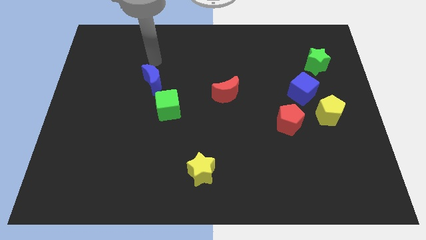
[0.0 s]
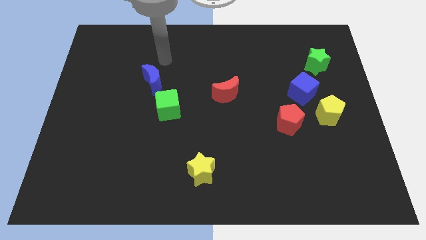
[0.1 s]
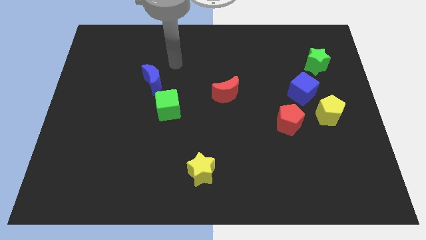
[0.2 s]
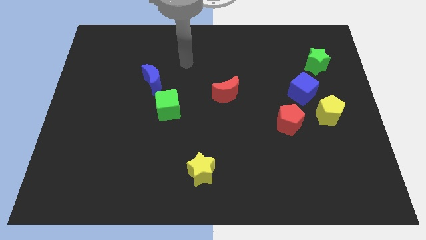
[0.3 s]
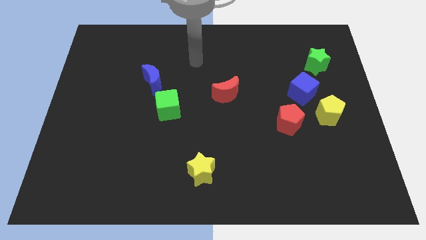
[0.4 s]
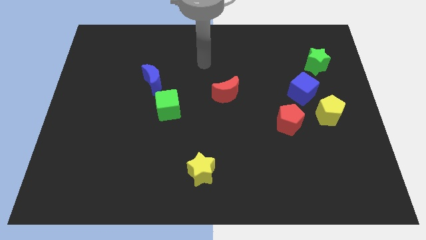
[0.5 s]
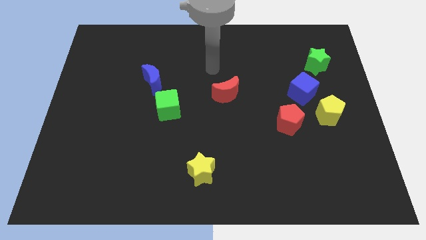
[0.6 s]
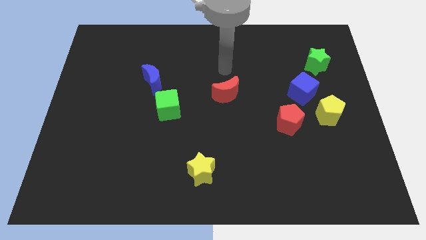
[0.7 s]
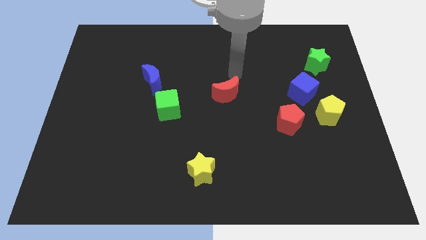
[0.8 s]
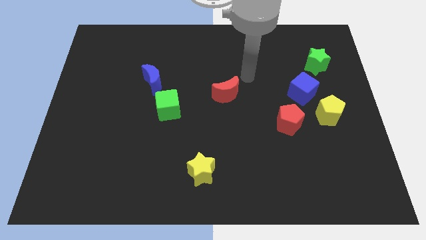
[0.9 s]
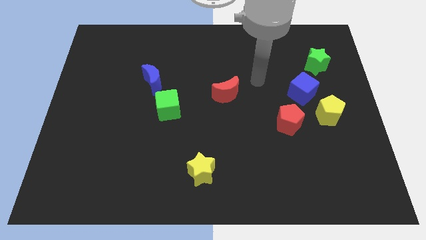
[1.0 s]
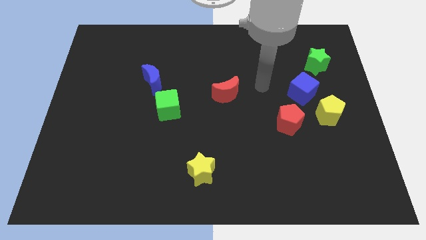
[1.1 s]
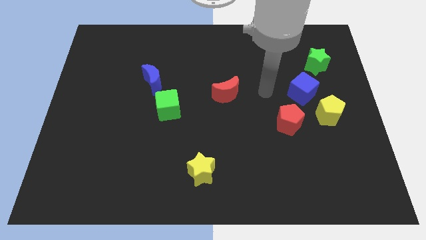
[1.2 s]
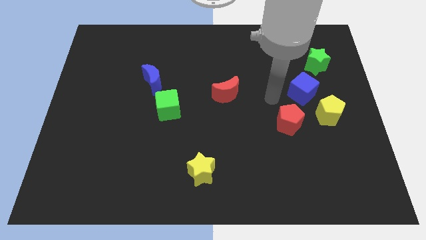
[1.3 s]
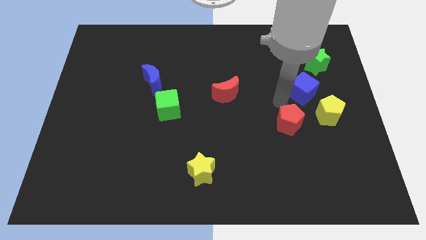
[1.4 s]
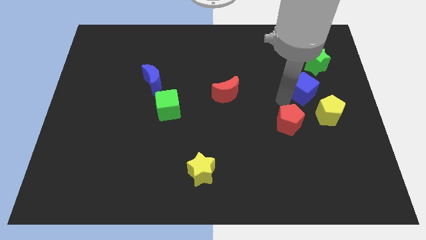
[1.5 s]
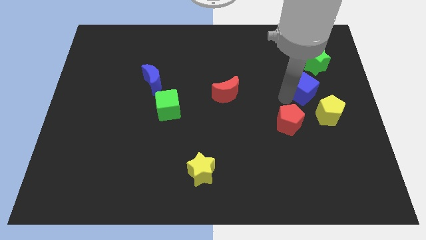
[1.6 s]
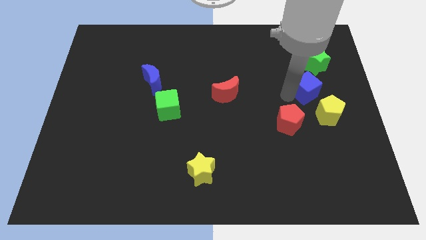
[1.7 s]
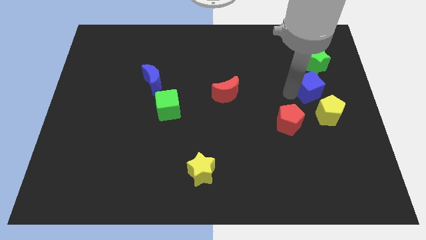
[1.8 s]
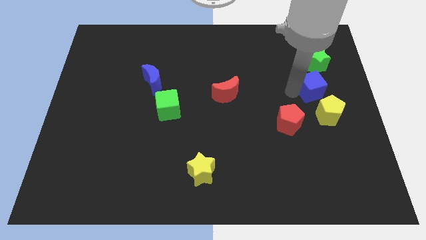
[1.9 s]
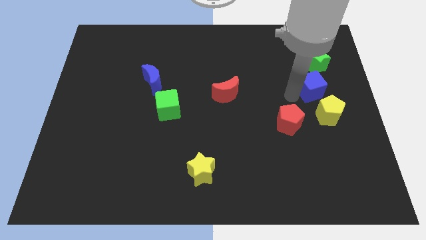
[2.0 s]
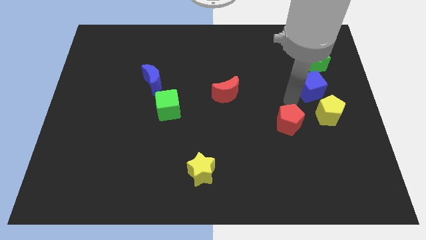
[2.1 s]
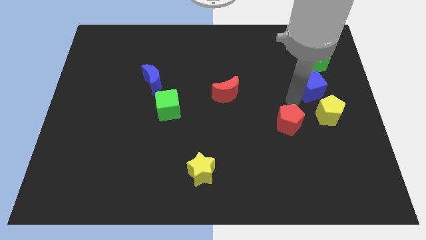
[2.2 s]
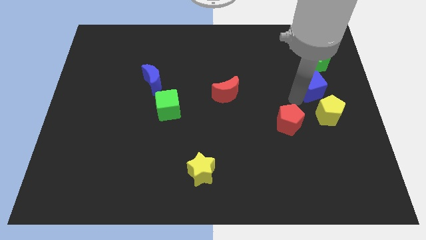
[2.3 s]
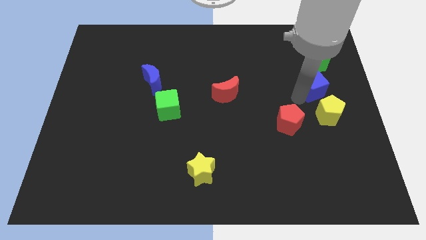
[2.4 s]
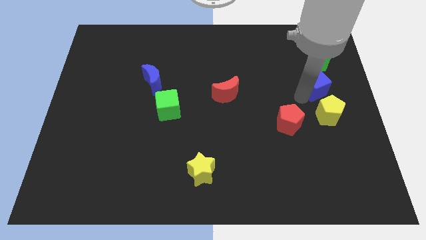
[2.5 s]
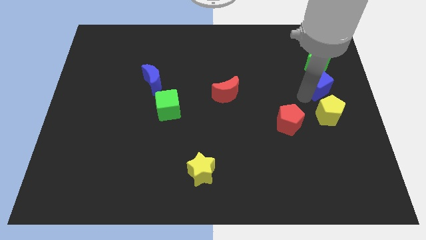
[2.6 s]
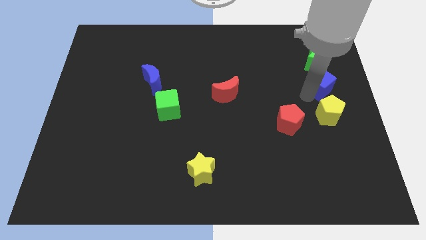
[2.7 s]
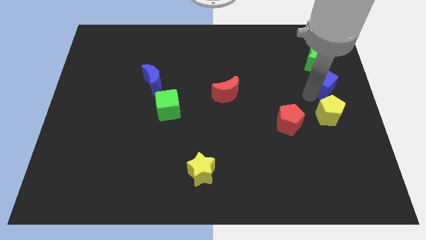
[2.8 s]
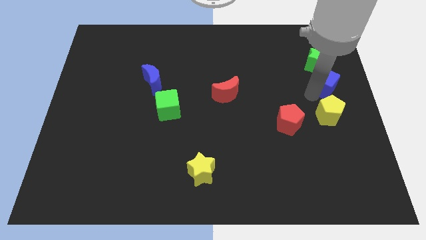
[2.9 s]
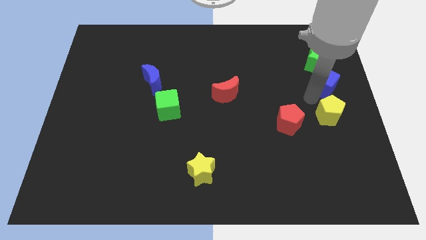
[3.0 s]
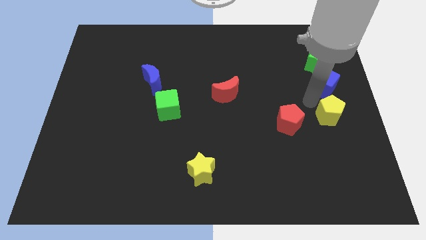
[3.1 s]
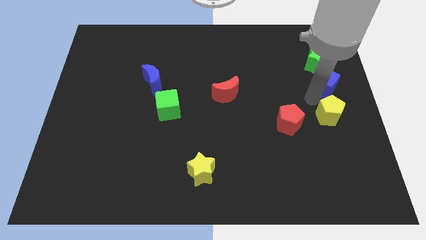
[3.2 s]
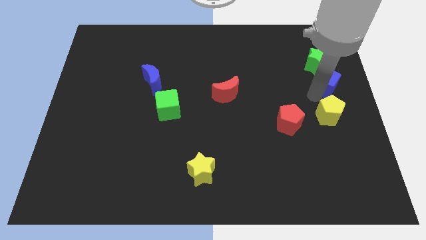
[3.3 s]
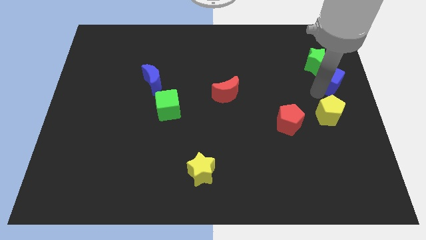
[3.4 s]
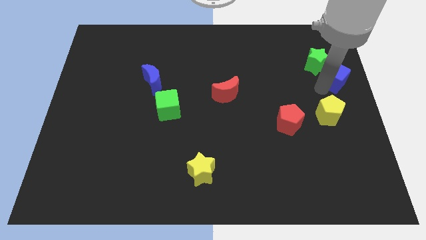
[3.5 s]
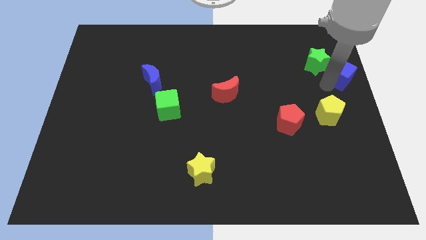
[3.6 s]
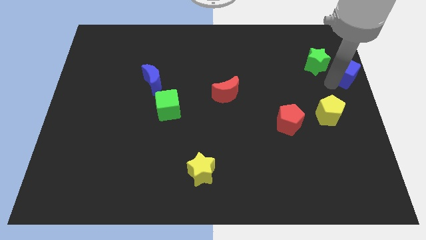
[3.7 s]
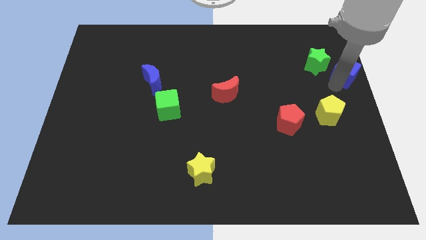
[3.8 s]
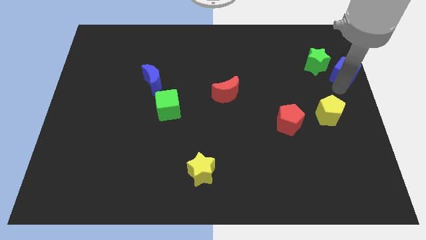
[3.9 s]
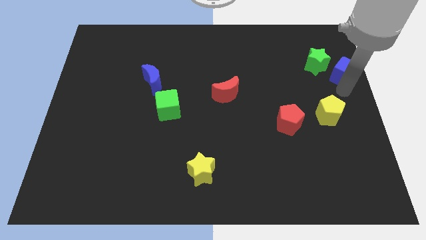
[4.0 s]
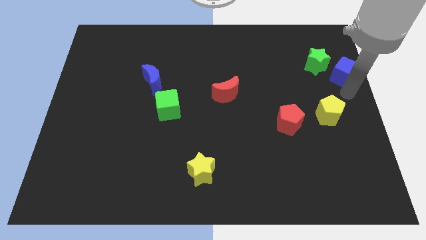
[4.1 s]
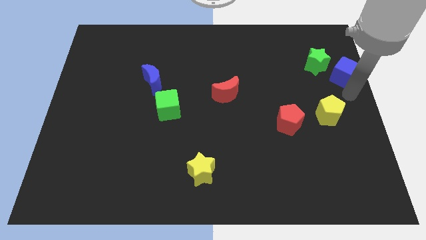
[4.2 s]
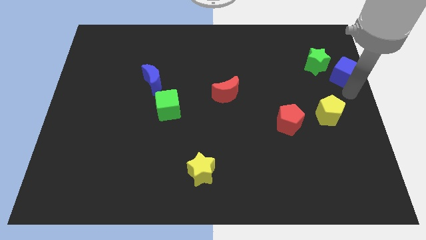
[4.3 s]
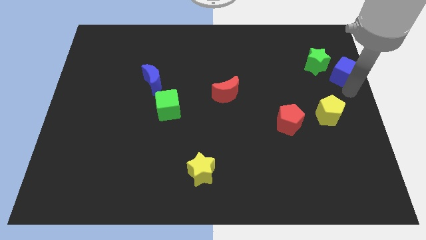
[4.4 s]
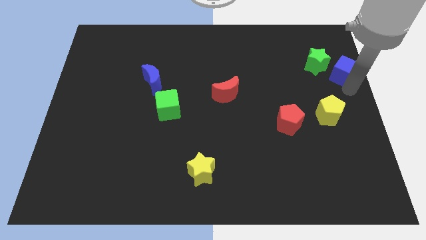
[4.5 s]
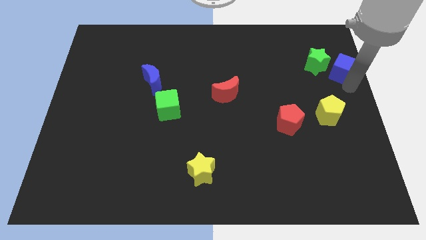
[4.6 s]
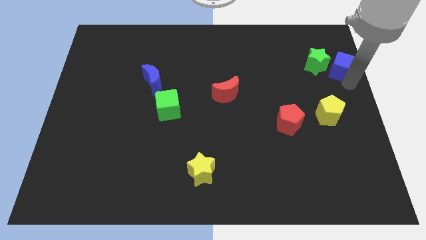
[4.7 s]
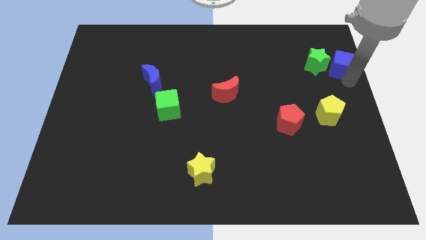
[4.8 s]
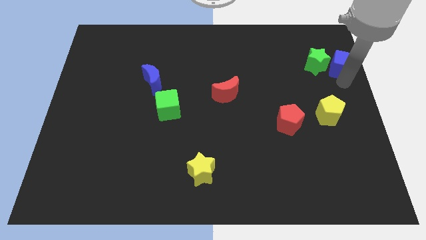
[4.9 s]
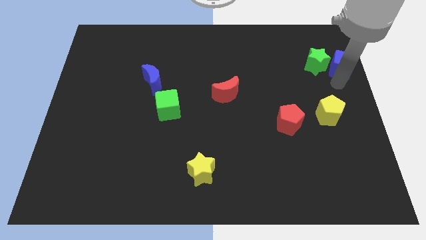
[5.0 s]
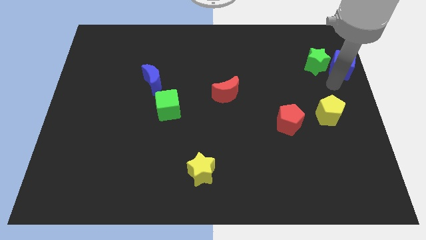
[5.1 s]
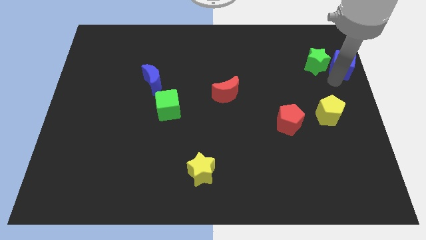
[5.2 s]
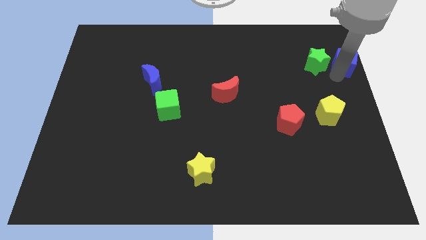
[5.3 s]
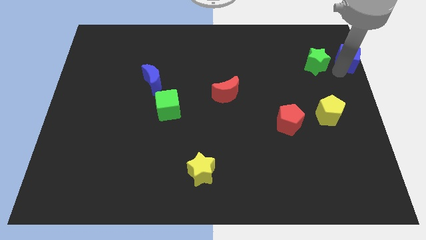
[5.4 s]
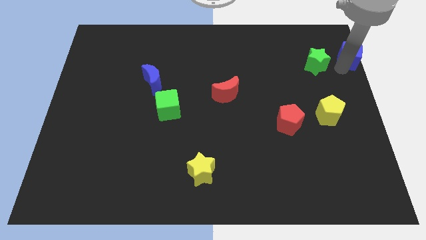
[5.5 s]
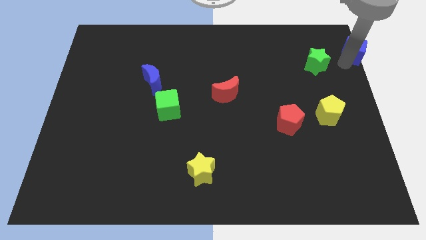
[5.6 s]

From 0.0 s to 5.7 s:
slide the blue cube to the top right of the board
